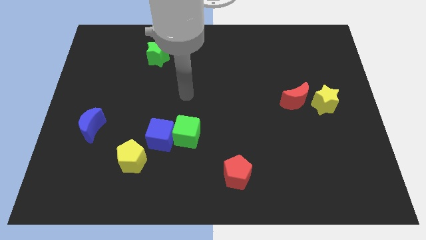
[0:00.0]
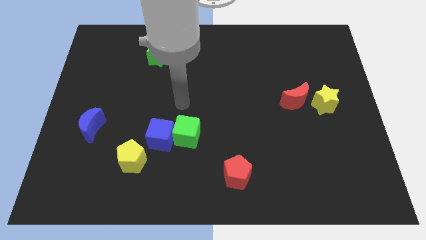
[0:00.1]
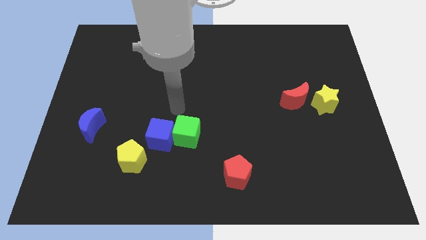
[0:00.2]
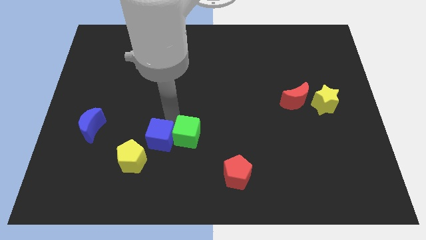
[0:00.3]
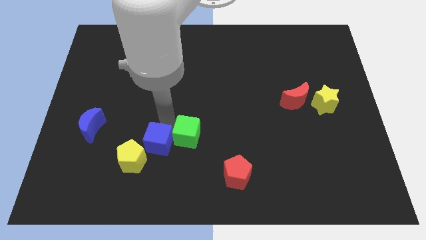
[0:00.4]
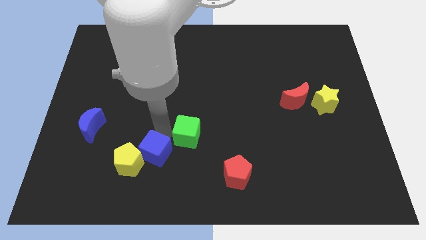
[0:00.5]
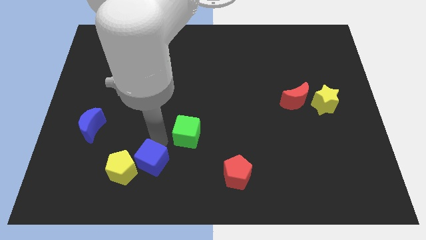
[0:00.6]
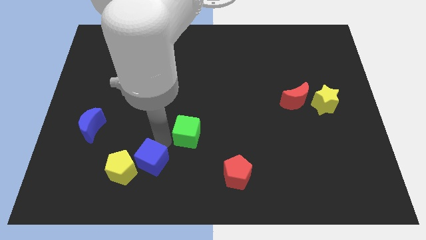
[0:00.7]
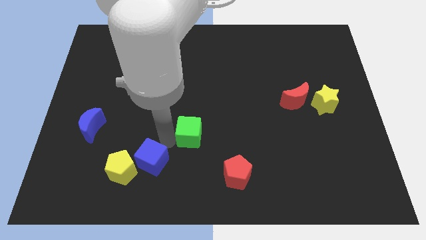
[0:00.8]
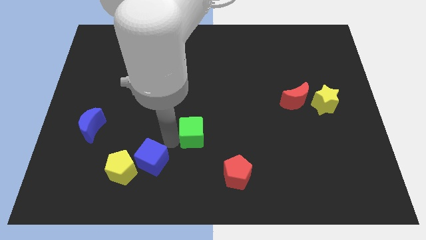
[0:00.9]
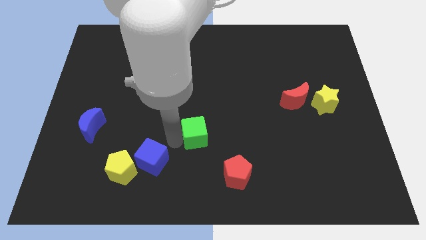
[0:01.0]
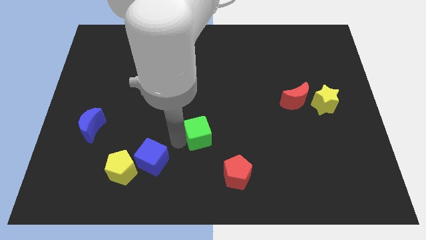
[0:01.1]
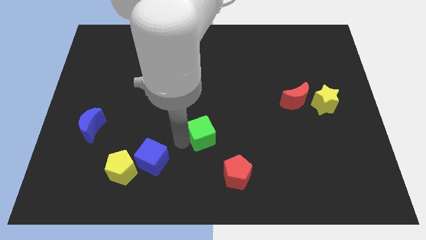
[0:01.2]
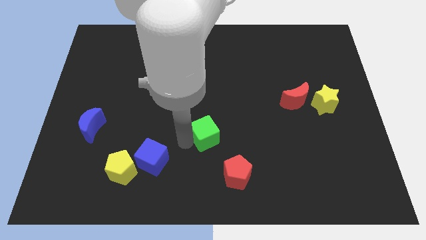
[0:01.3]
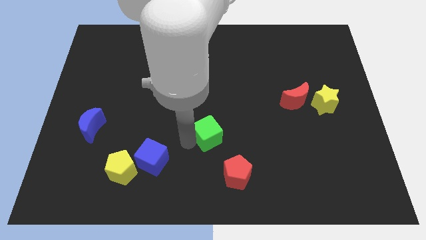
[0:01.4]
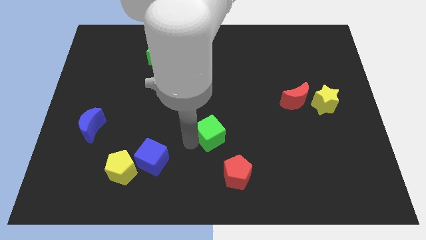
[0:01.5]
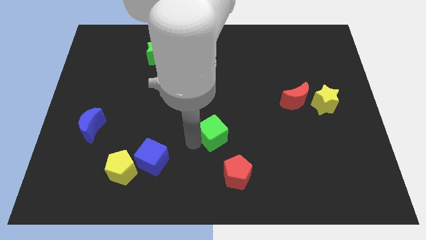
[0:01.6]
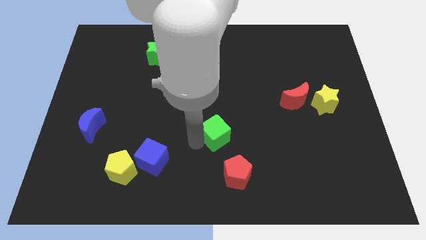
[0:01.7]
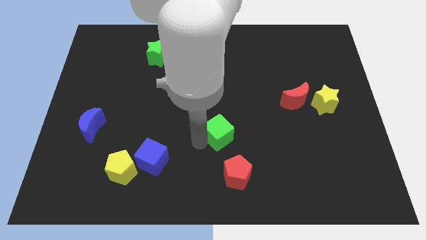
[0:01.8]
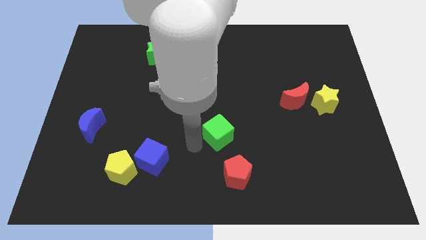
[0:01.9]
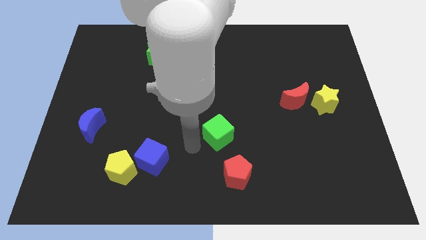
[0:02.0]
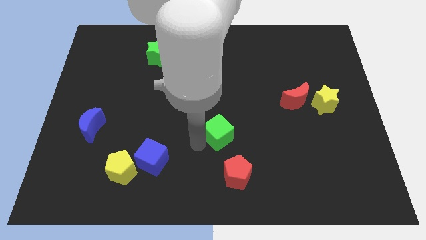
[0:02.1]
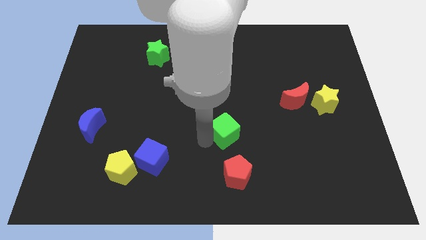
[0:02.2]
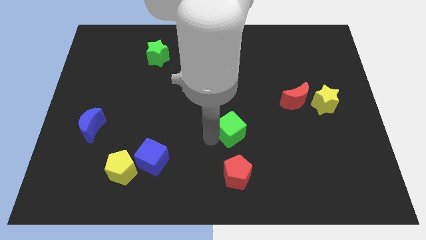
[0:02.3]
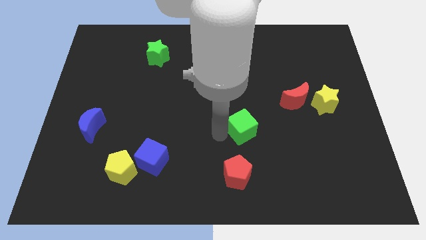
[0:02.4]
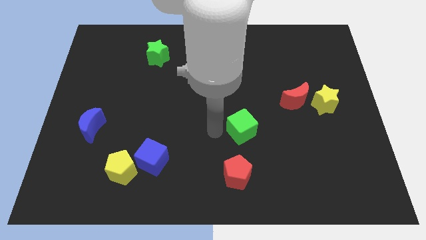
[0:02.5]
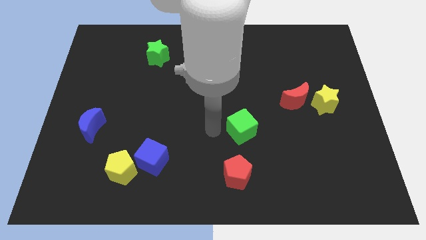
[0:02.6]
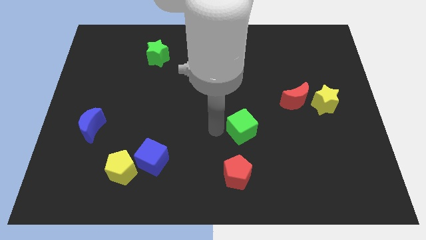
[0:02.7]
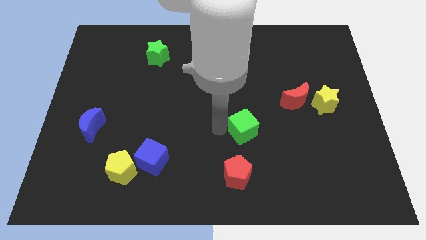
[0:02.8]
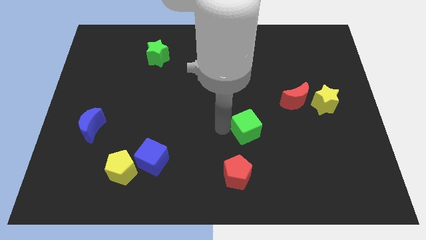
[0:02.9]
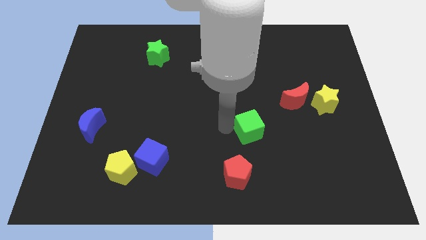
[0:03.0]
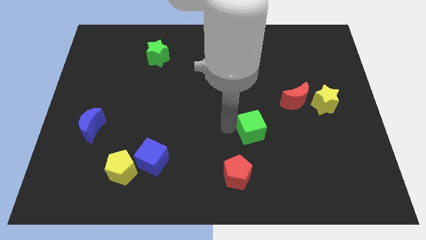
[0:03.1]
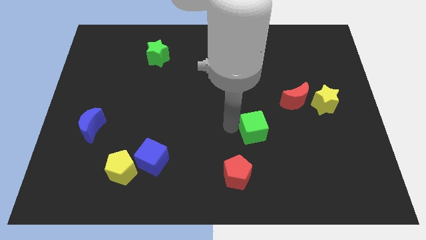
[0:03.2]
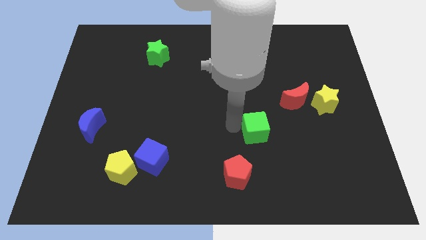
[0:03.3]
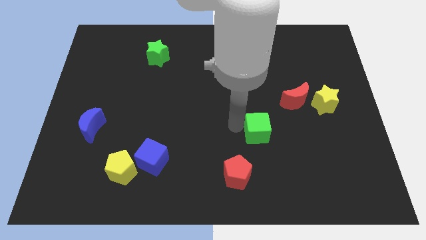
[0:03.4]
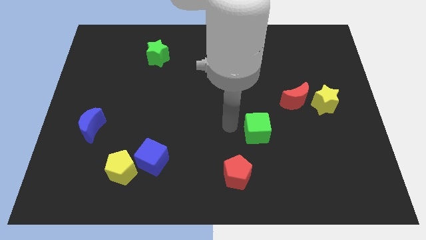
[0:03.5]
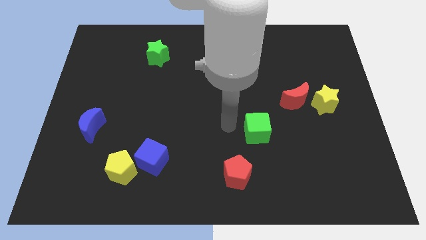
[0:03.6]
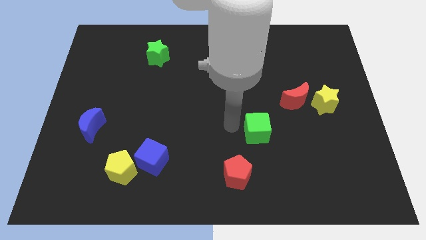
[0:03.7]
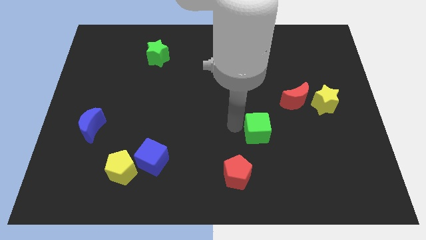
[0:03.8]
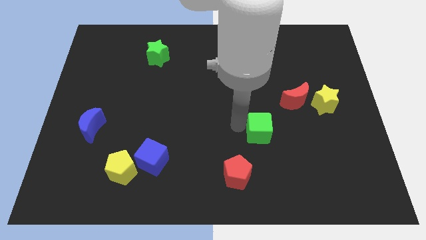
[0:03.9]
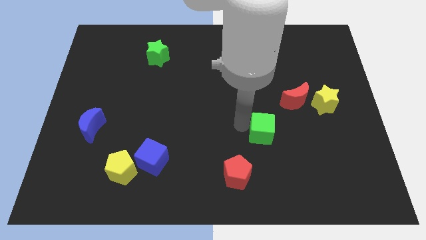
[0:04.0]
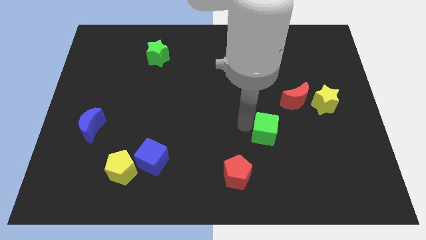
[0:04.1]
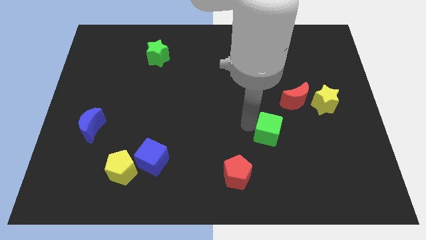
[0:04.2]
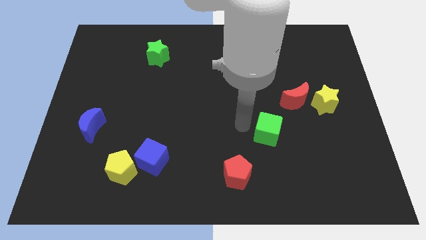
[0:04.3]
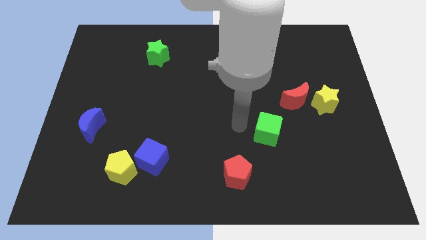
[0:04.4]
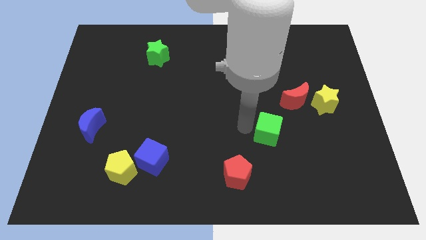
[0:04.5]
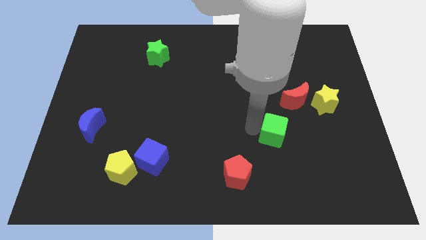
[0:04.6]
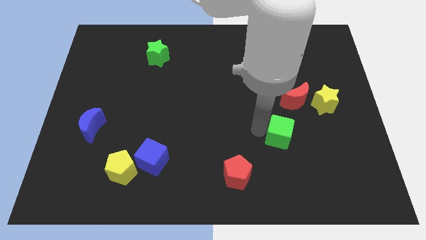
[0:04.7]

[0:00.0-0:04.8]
move the green cube right

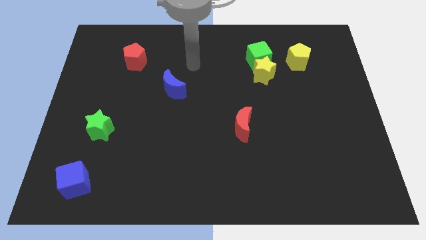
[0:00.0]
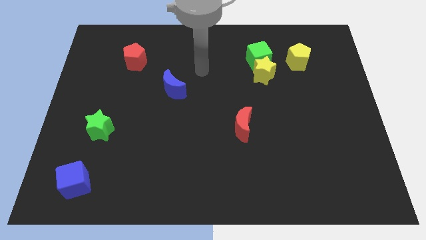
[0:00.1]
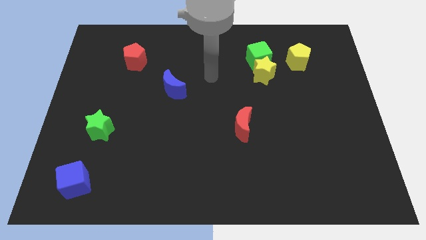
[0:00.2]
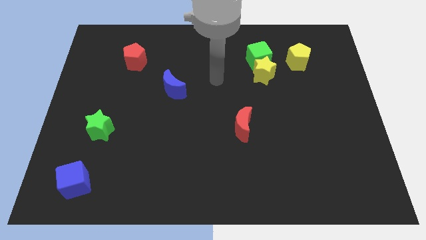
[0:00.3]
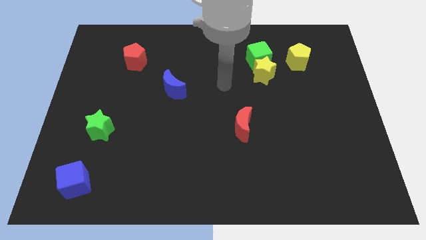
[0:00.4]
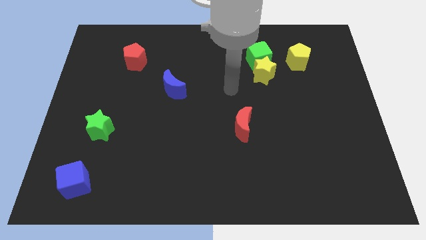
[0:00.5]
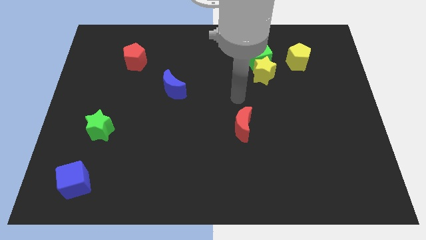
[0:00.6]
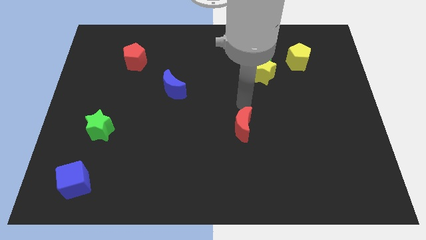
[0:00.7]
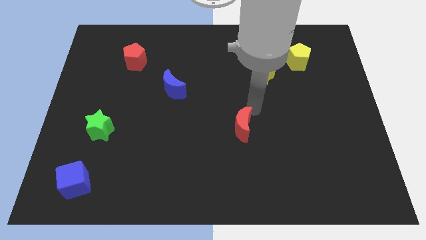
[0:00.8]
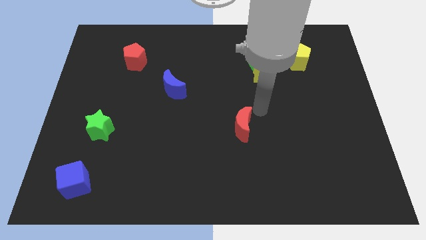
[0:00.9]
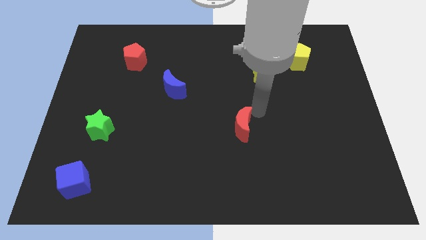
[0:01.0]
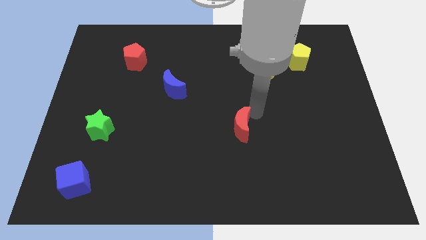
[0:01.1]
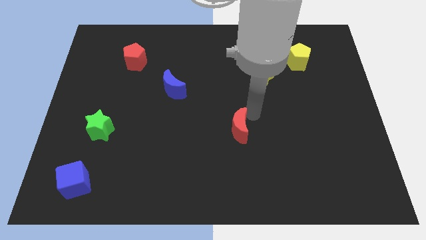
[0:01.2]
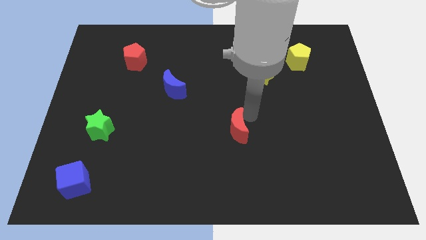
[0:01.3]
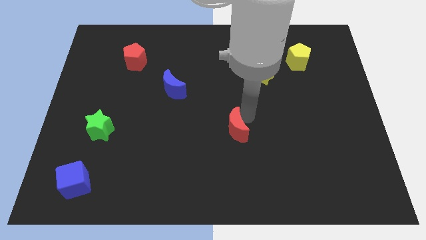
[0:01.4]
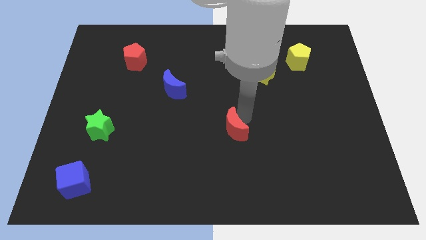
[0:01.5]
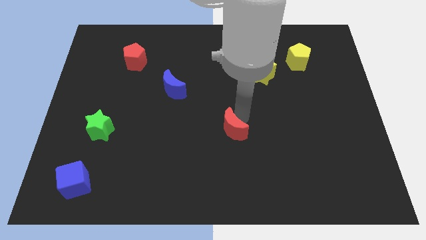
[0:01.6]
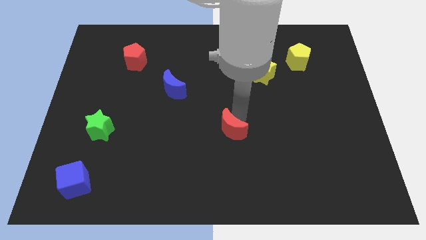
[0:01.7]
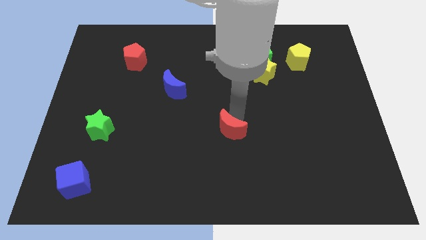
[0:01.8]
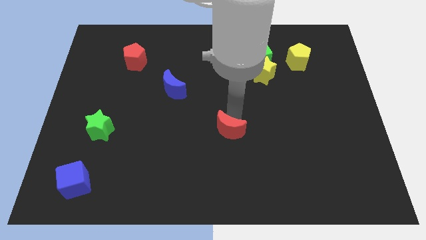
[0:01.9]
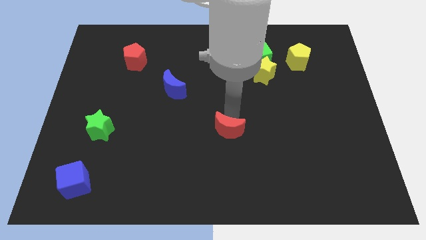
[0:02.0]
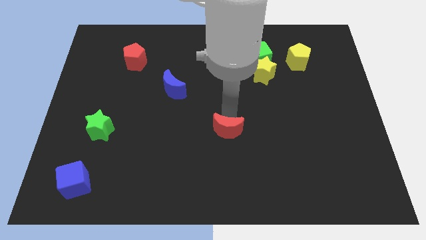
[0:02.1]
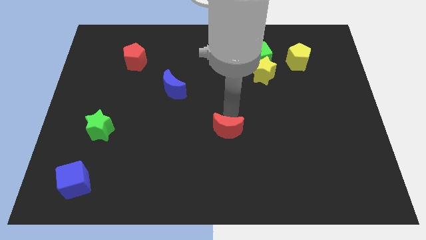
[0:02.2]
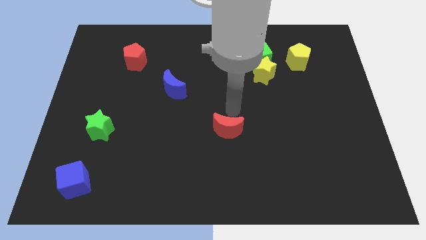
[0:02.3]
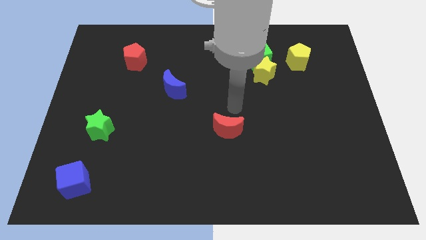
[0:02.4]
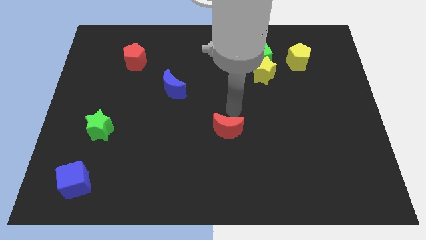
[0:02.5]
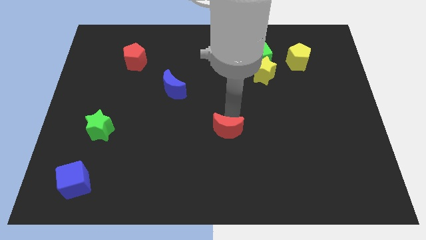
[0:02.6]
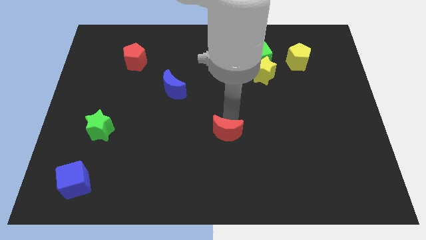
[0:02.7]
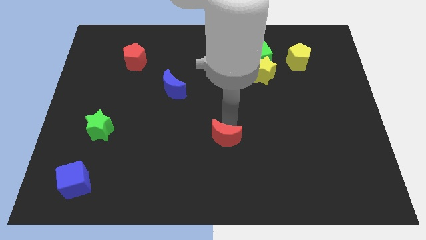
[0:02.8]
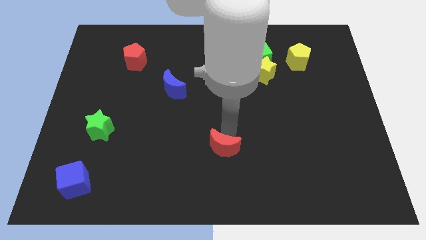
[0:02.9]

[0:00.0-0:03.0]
slide the red moon somewhat down and then to the left
